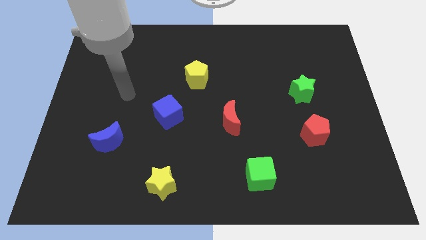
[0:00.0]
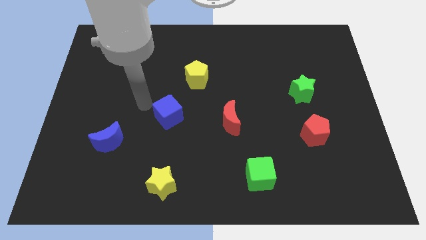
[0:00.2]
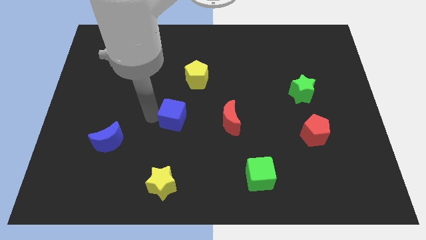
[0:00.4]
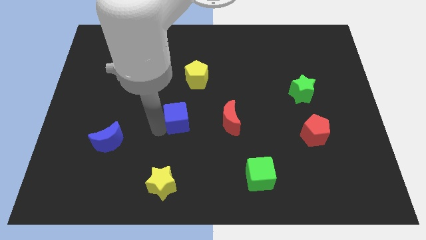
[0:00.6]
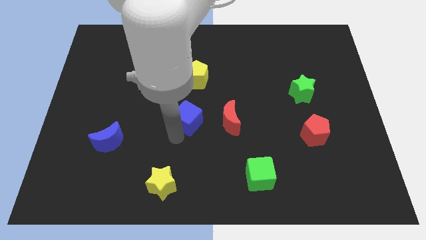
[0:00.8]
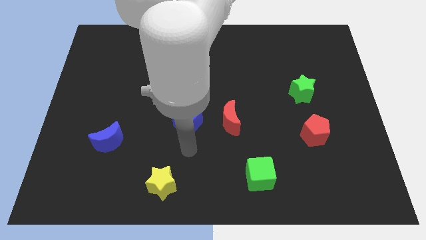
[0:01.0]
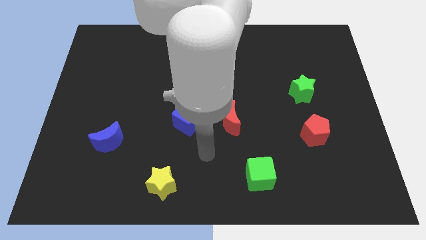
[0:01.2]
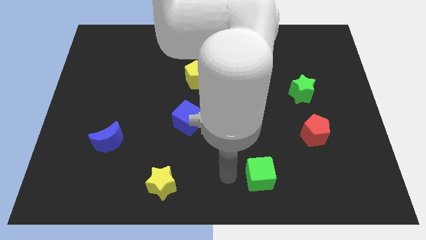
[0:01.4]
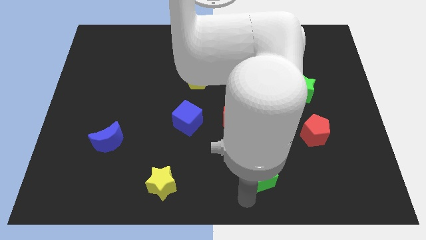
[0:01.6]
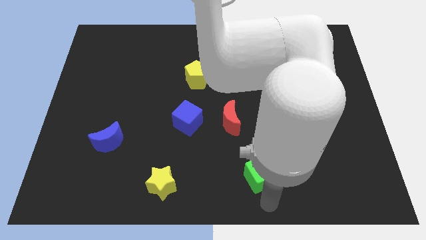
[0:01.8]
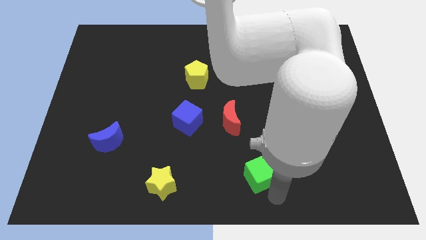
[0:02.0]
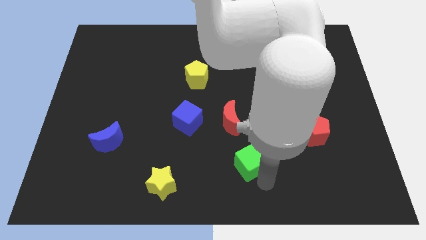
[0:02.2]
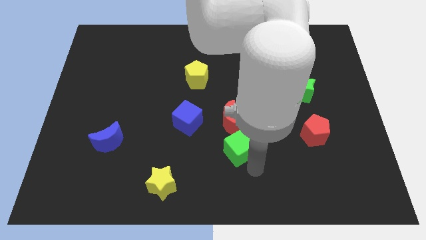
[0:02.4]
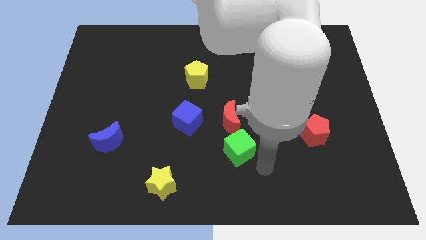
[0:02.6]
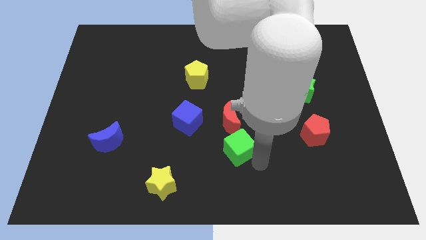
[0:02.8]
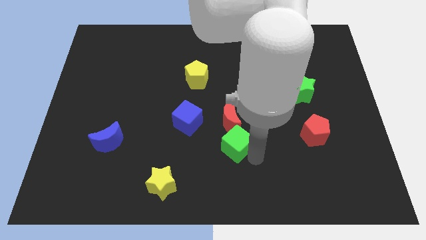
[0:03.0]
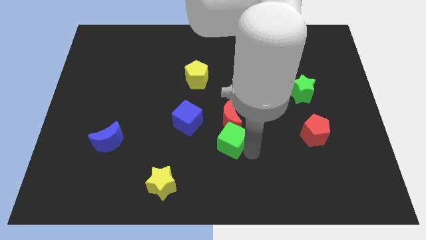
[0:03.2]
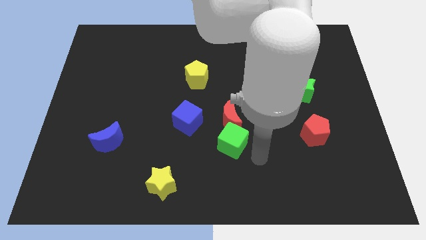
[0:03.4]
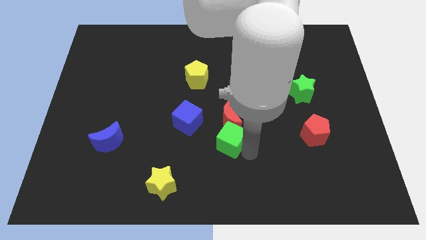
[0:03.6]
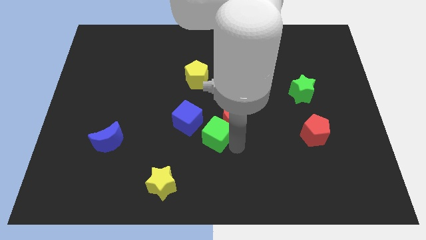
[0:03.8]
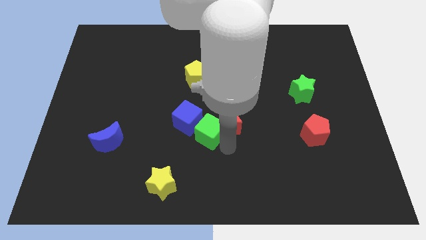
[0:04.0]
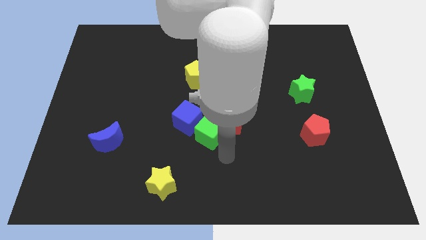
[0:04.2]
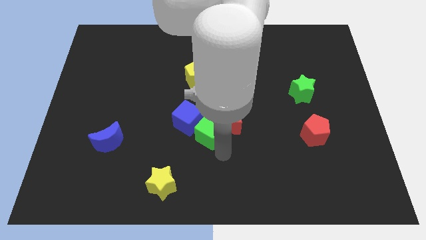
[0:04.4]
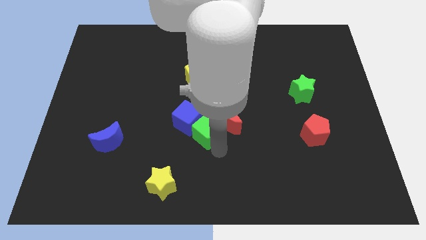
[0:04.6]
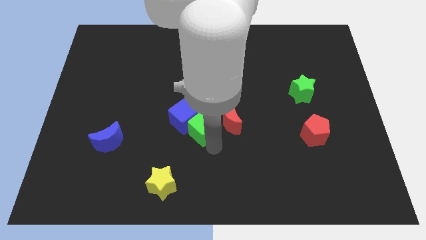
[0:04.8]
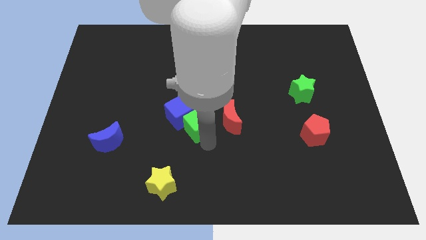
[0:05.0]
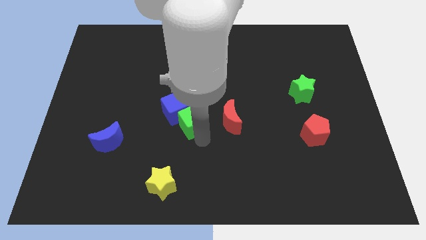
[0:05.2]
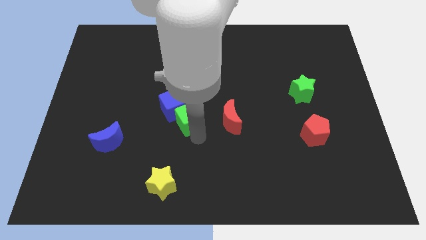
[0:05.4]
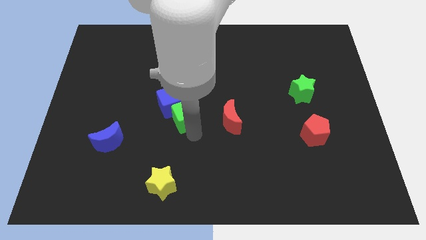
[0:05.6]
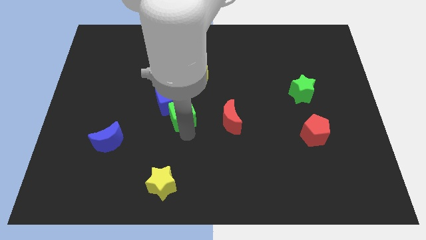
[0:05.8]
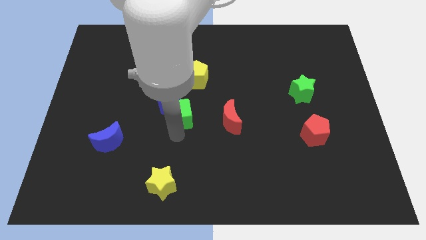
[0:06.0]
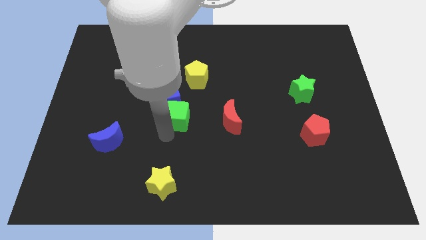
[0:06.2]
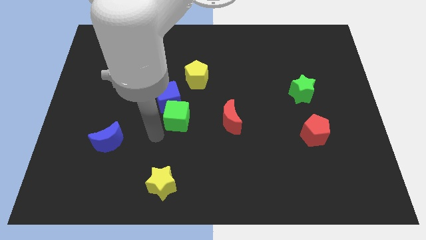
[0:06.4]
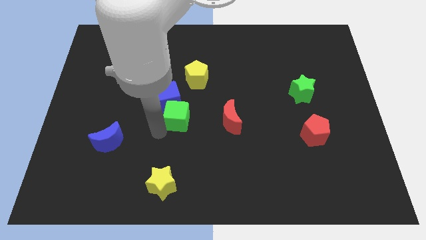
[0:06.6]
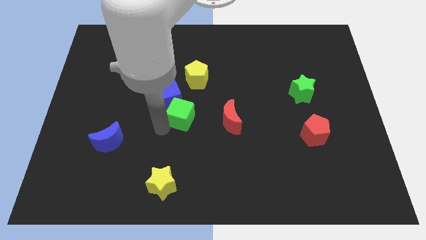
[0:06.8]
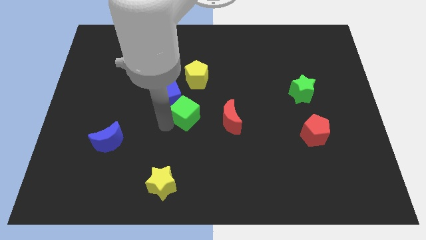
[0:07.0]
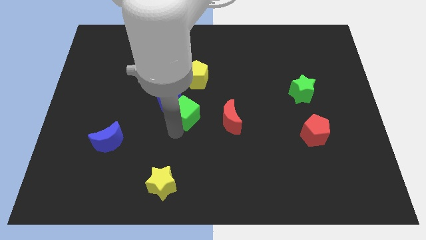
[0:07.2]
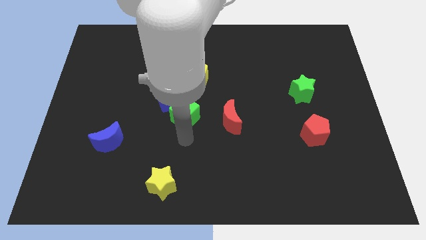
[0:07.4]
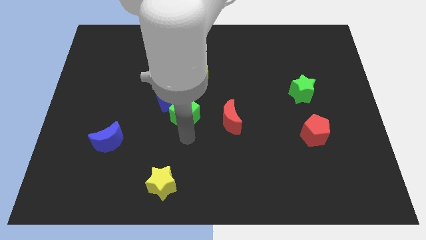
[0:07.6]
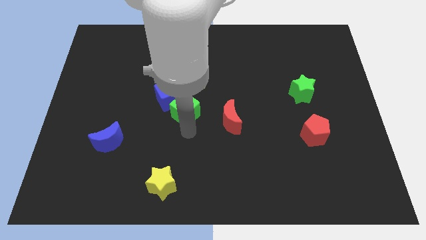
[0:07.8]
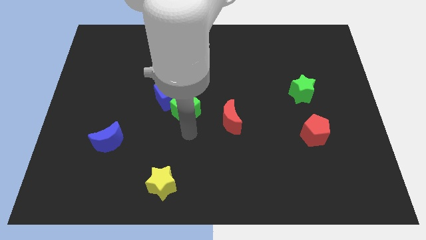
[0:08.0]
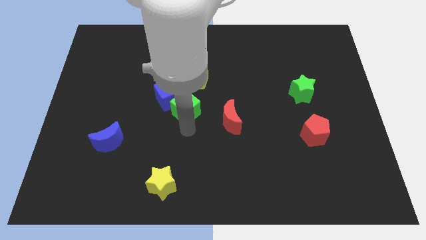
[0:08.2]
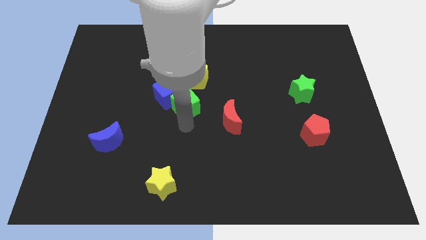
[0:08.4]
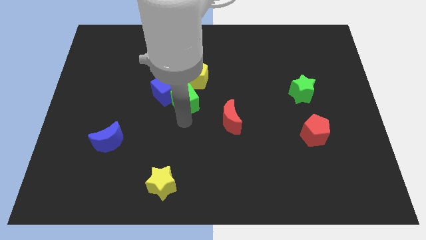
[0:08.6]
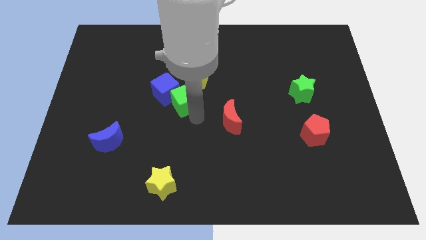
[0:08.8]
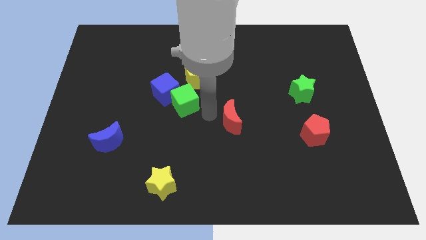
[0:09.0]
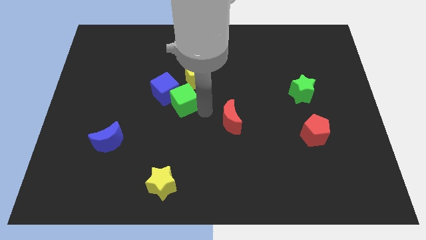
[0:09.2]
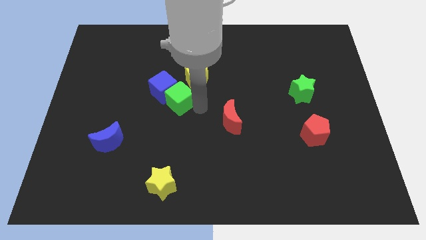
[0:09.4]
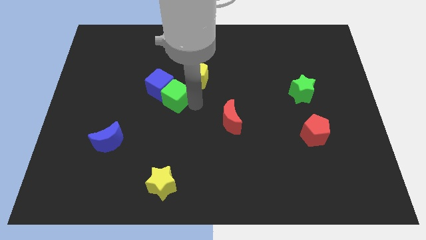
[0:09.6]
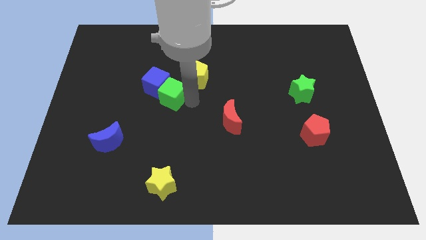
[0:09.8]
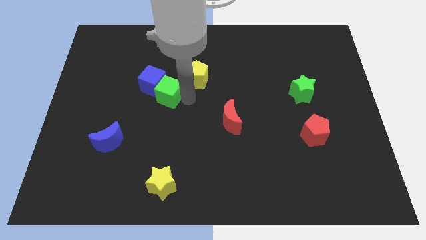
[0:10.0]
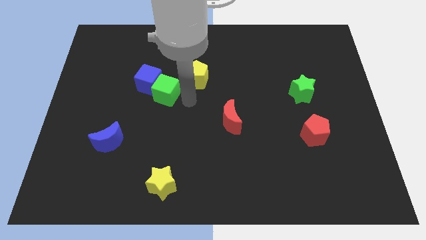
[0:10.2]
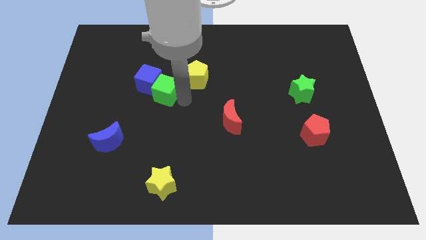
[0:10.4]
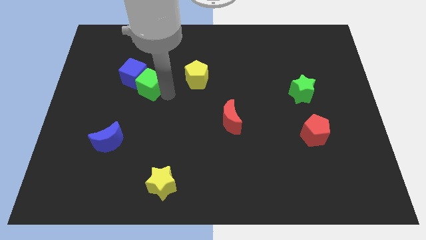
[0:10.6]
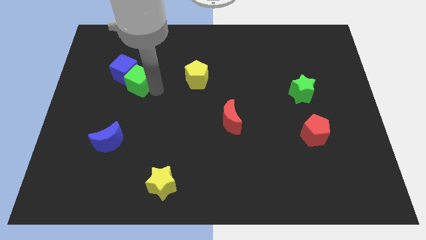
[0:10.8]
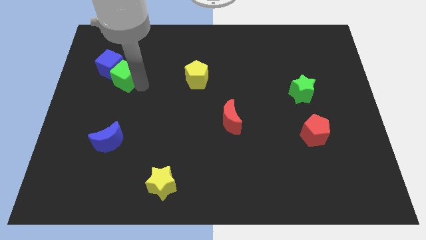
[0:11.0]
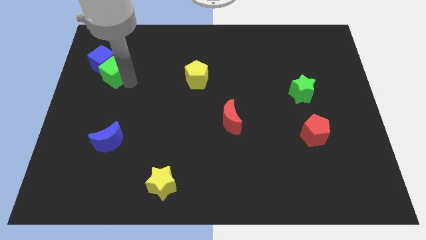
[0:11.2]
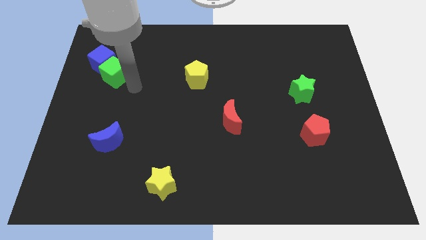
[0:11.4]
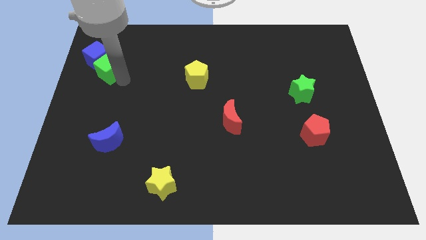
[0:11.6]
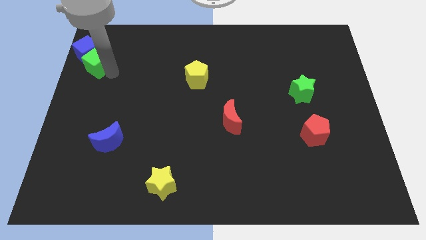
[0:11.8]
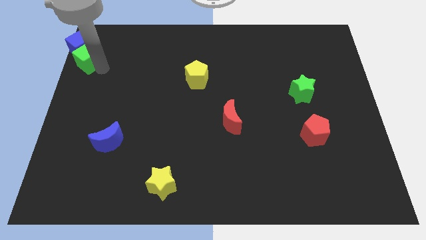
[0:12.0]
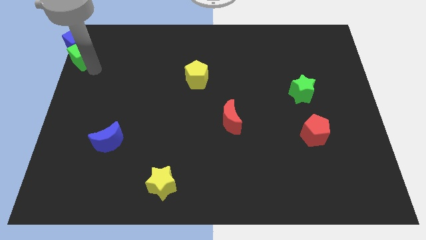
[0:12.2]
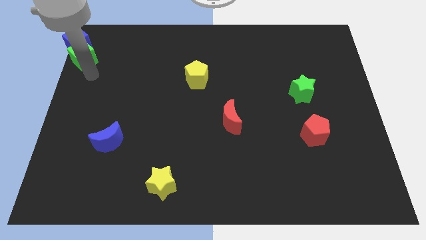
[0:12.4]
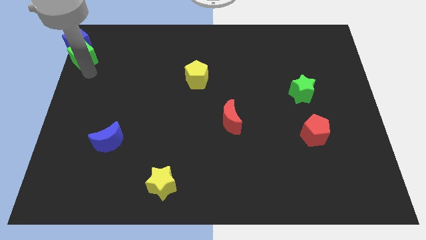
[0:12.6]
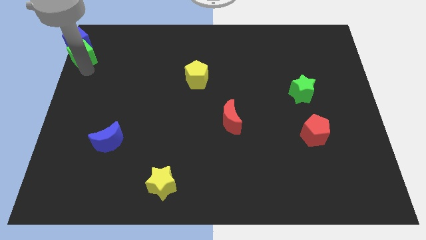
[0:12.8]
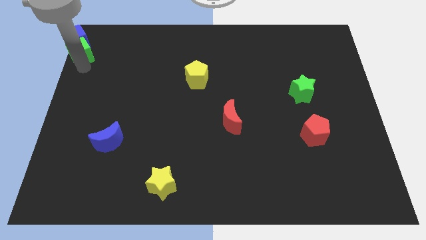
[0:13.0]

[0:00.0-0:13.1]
slide the green cube to the top left

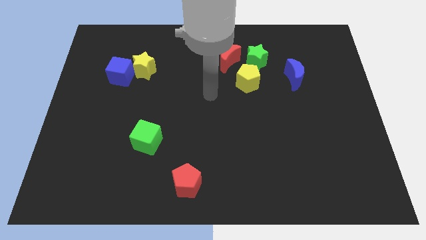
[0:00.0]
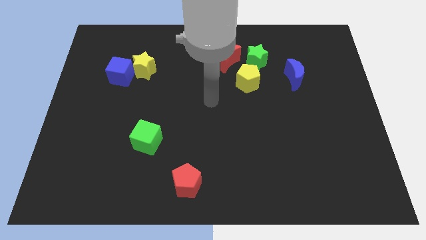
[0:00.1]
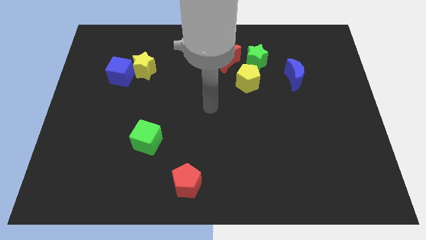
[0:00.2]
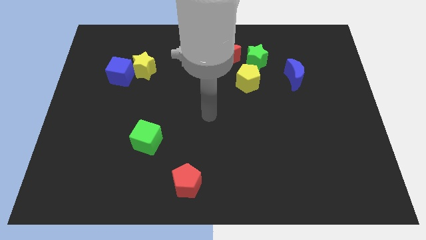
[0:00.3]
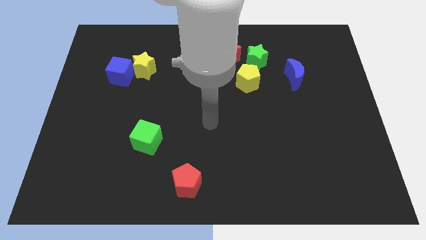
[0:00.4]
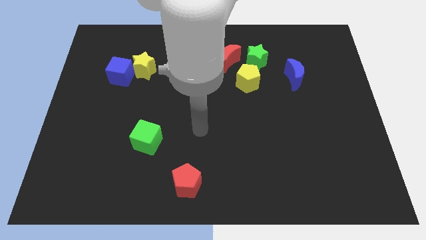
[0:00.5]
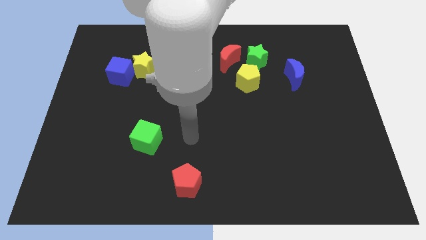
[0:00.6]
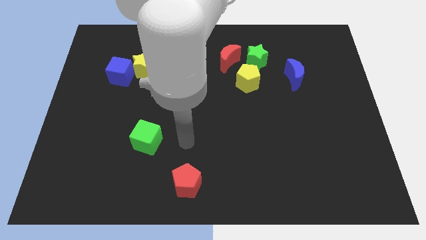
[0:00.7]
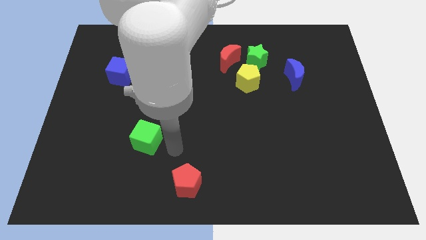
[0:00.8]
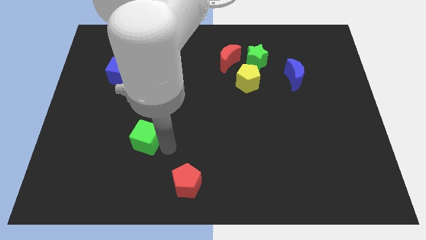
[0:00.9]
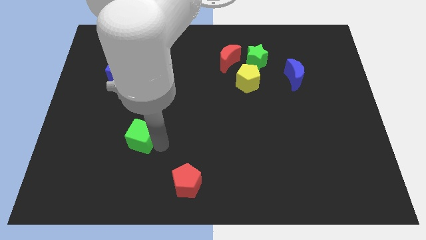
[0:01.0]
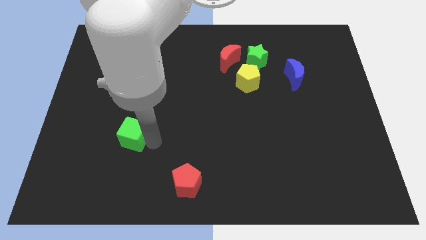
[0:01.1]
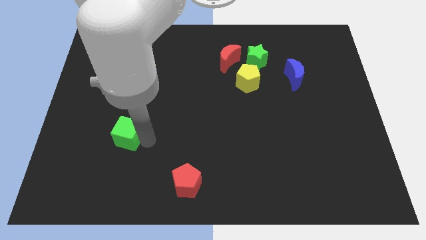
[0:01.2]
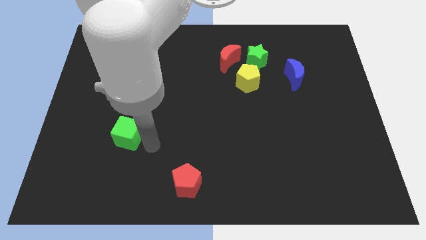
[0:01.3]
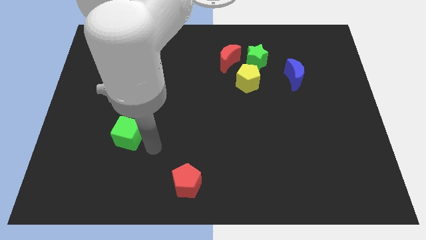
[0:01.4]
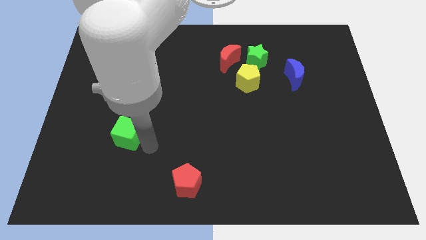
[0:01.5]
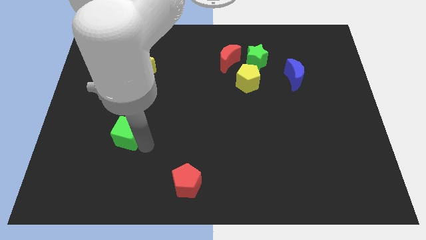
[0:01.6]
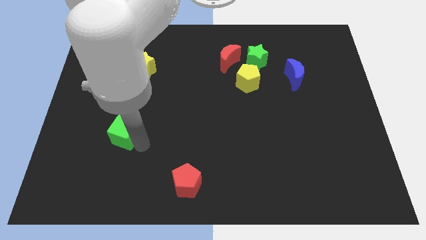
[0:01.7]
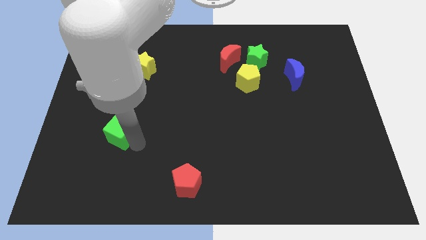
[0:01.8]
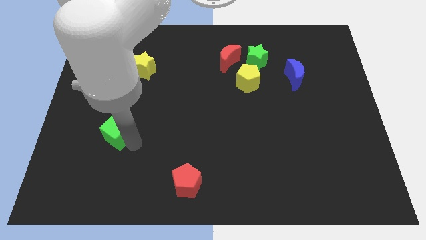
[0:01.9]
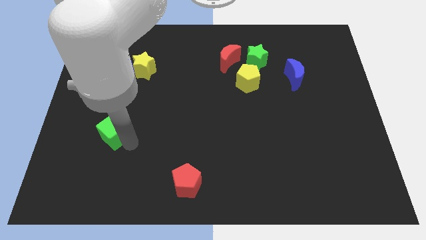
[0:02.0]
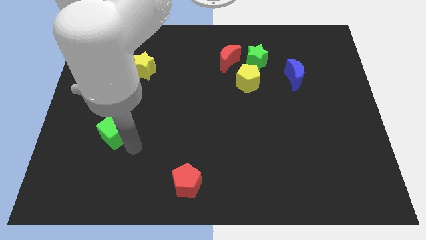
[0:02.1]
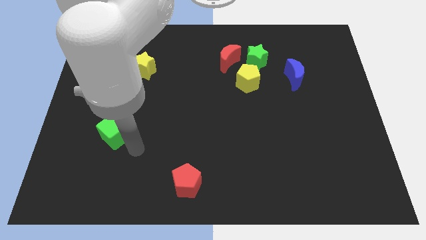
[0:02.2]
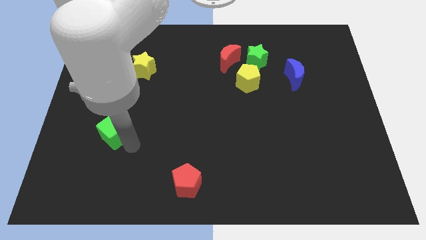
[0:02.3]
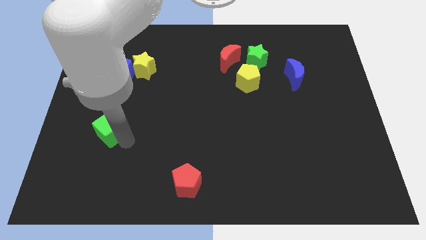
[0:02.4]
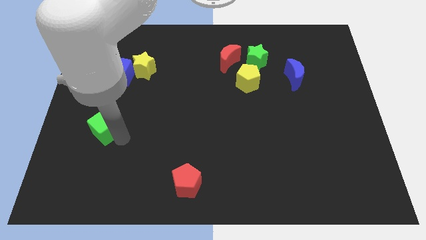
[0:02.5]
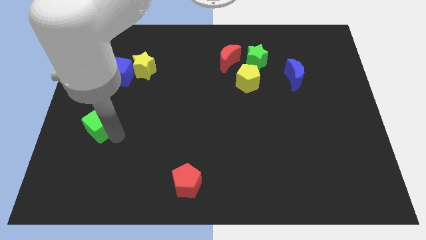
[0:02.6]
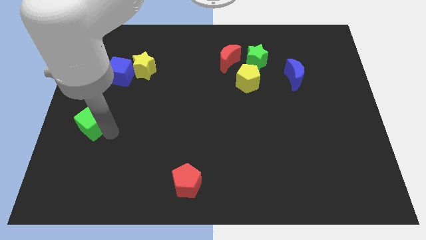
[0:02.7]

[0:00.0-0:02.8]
push the green cube to the left side of the board
